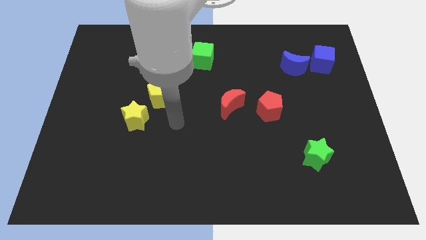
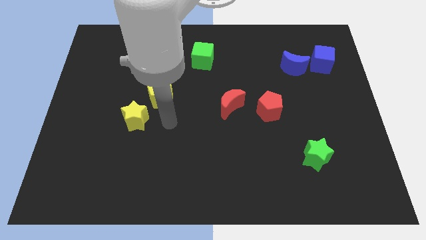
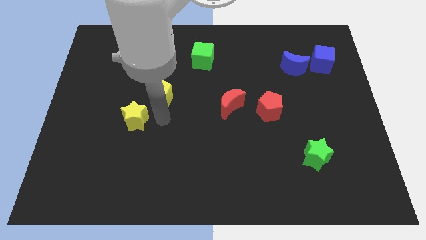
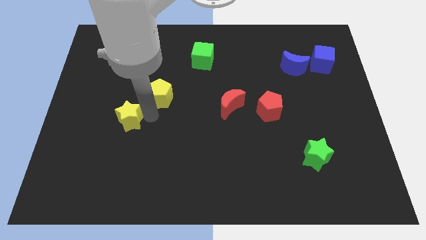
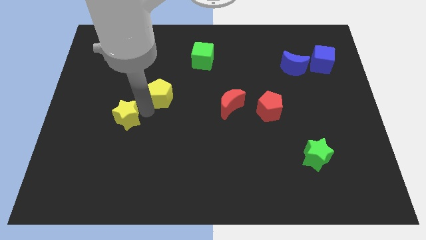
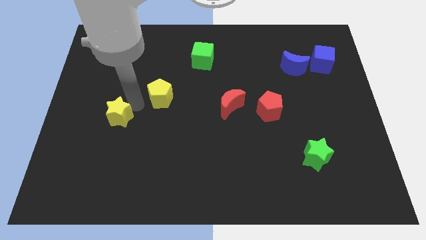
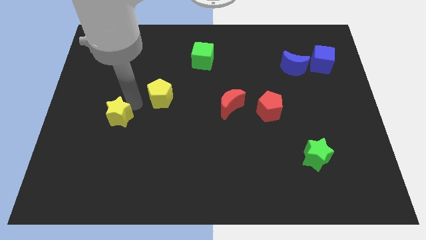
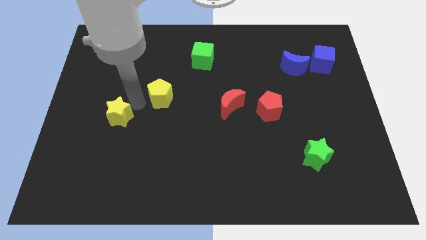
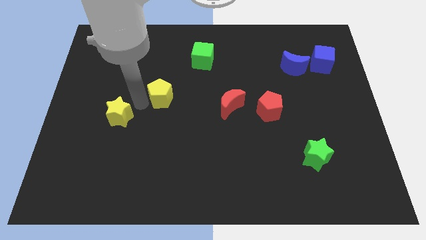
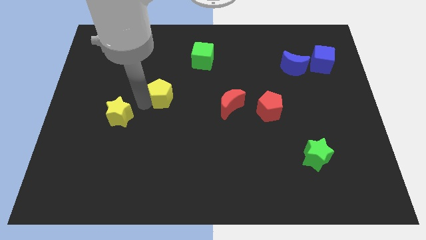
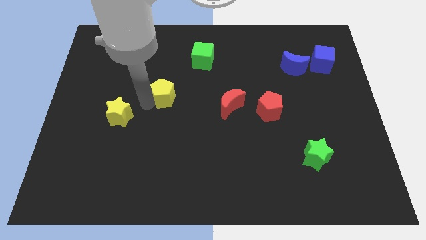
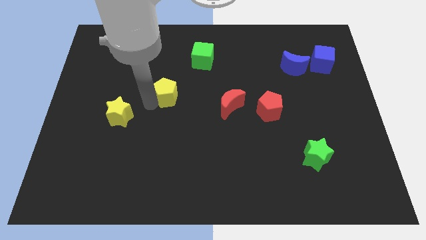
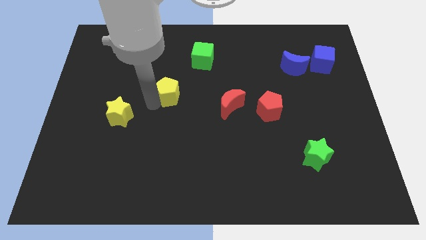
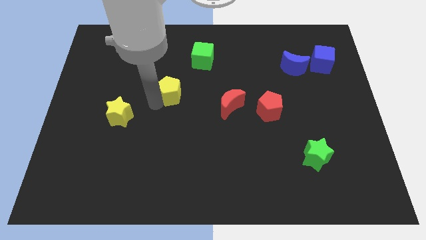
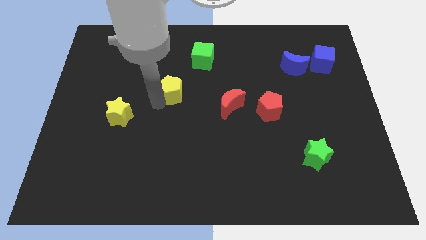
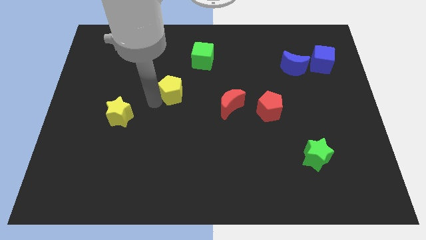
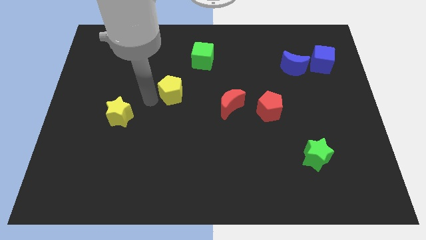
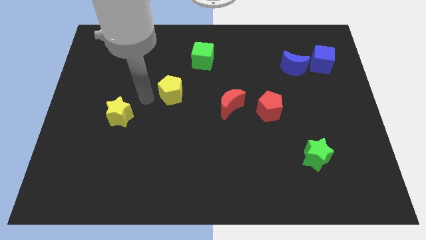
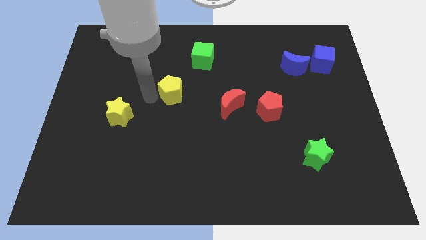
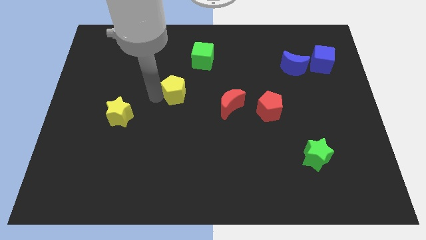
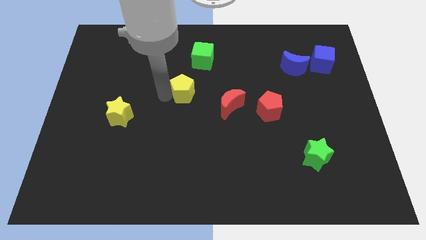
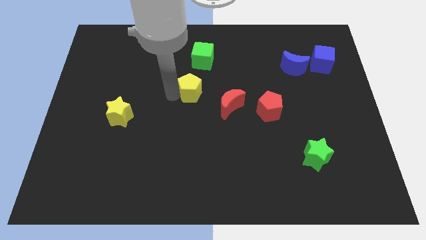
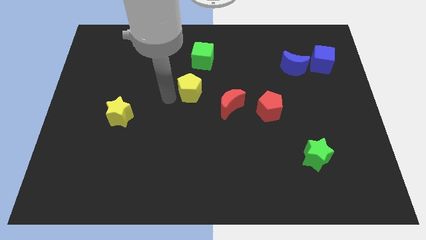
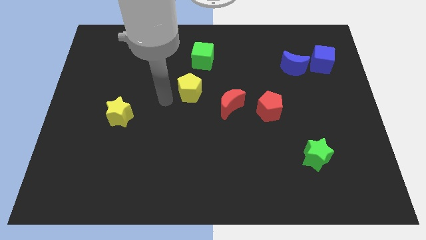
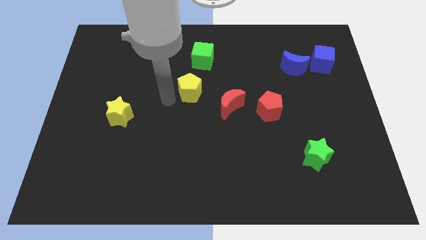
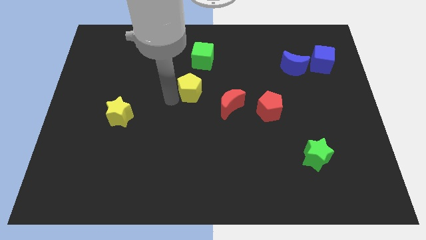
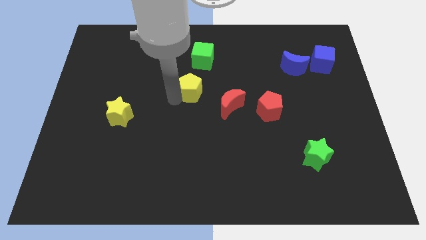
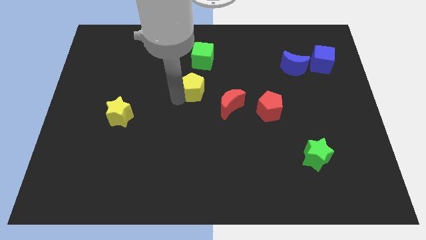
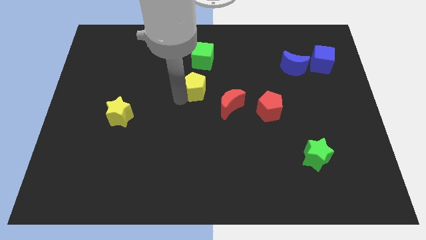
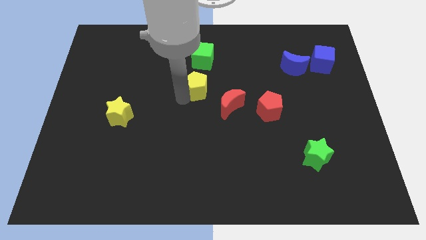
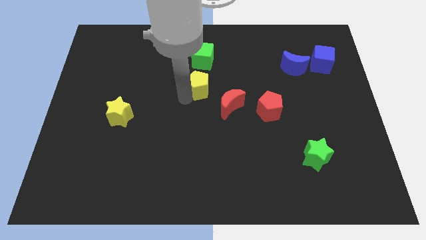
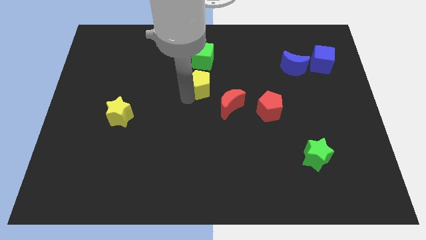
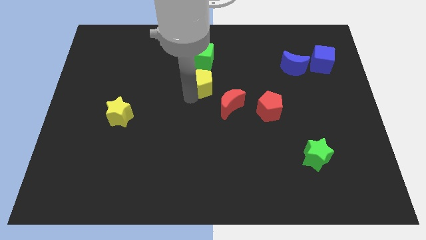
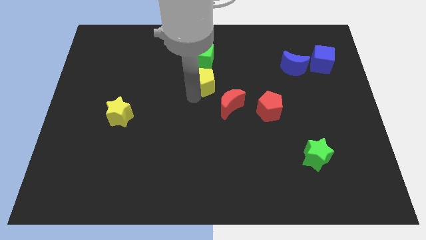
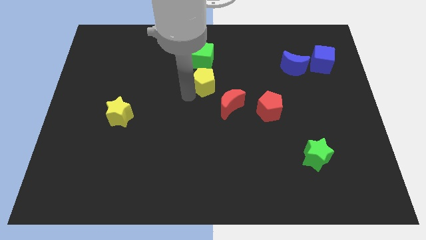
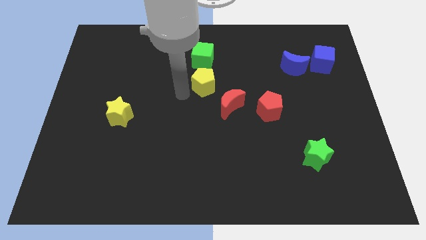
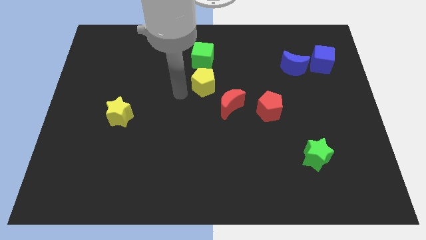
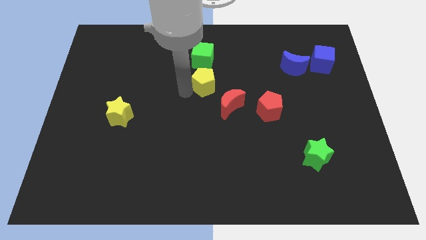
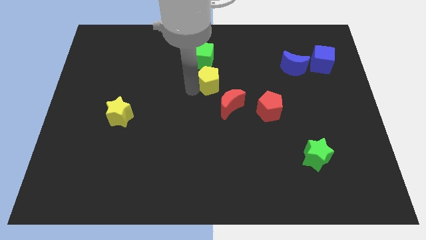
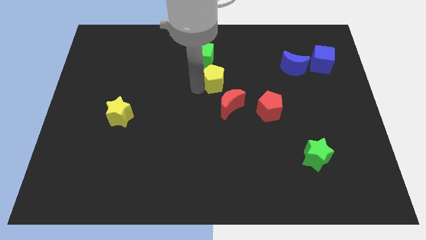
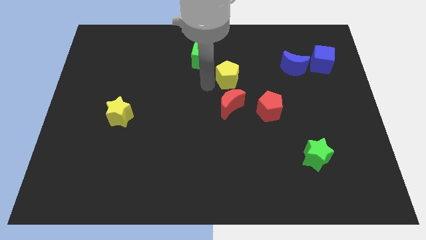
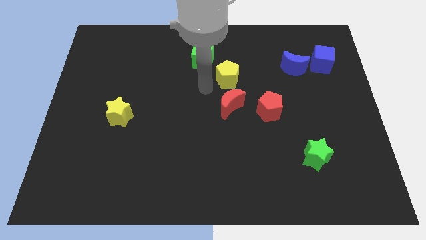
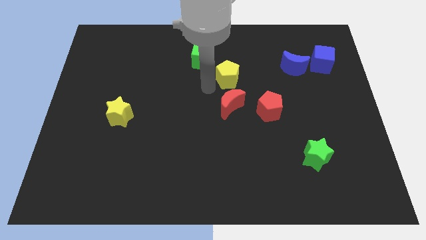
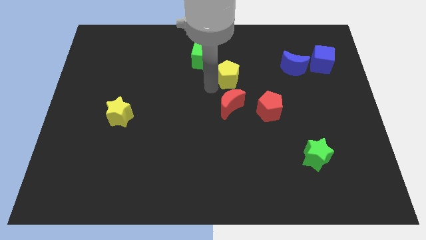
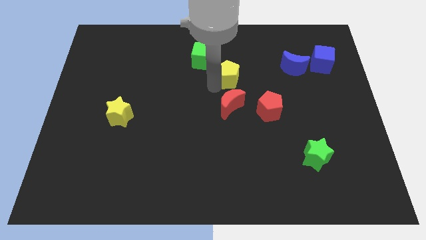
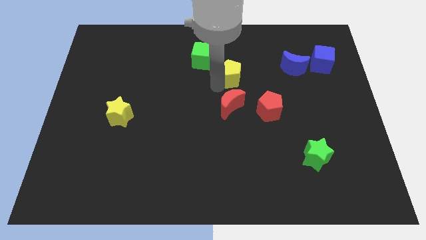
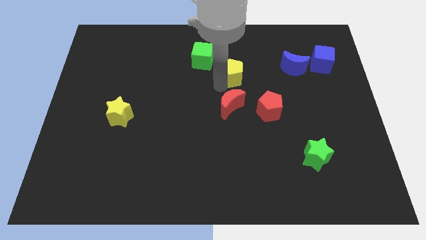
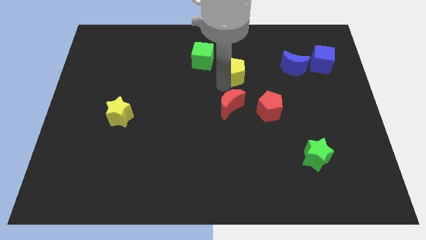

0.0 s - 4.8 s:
push the yellow pentagon left of the blue moon

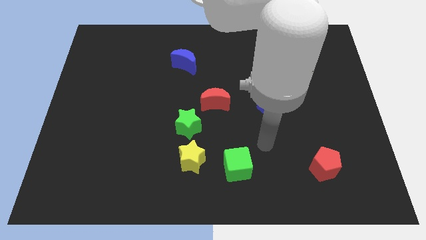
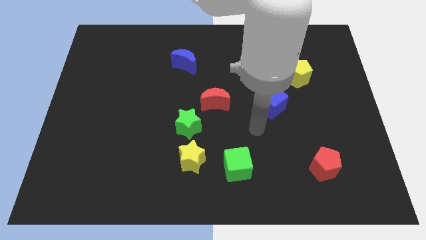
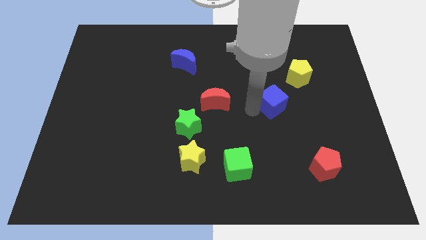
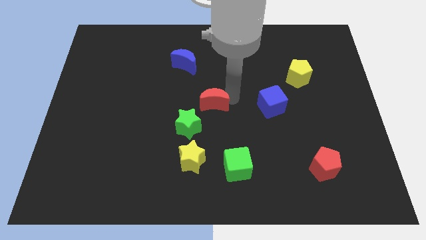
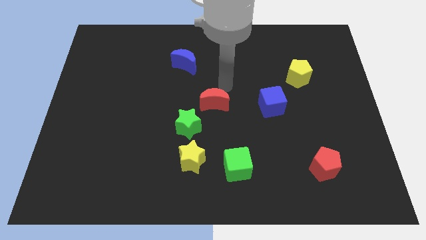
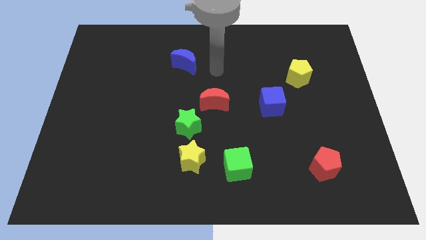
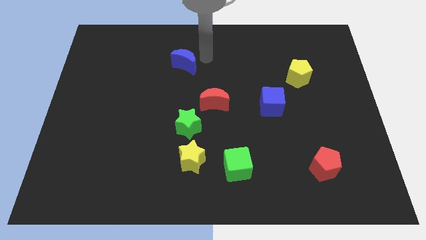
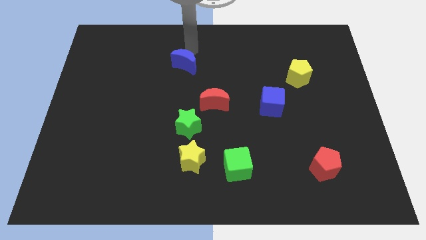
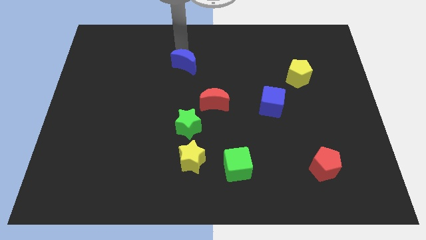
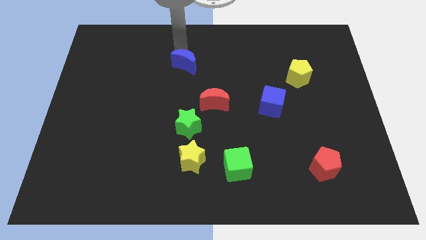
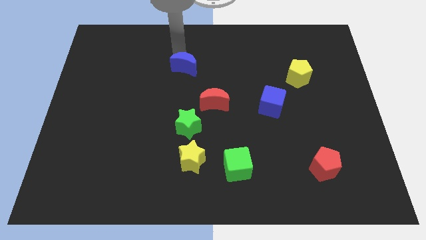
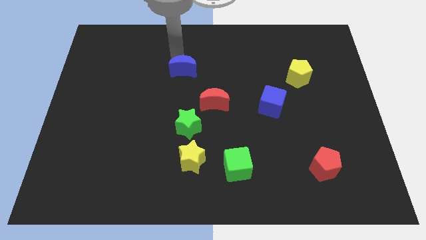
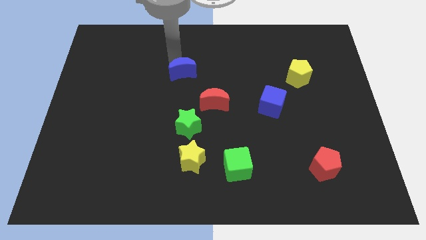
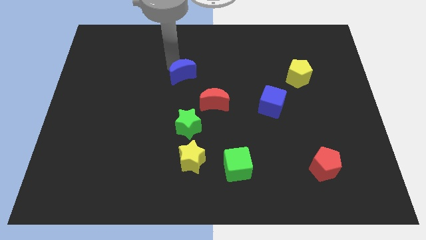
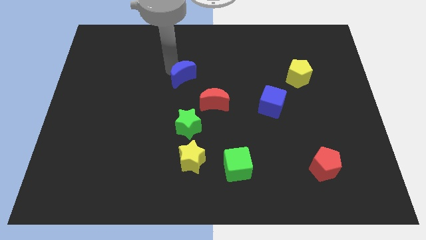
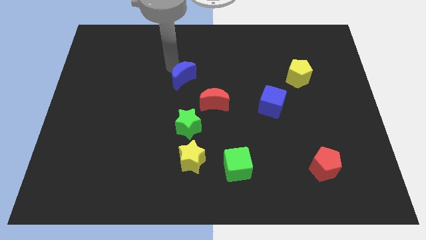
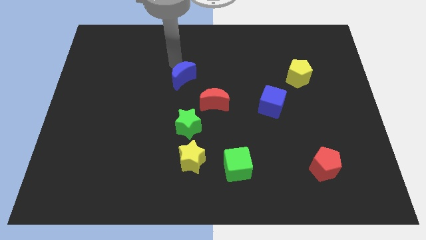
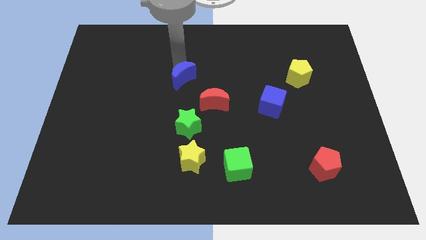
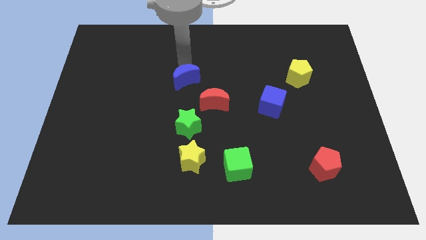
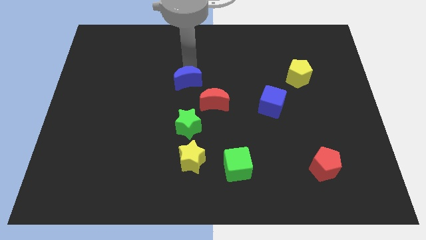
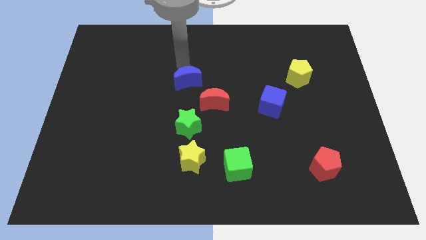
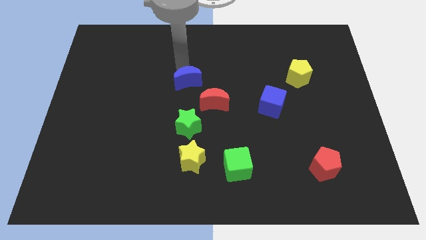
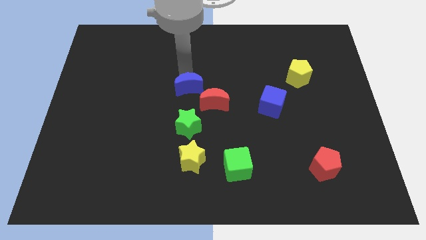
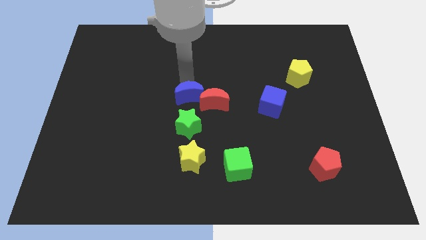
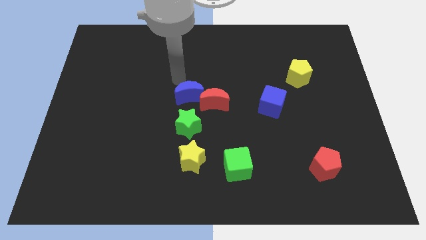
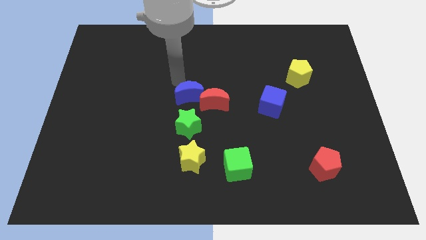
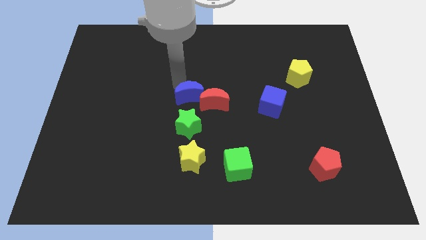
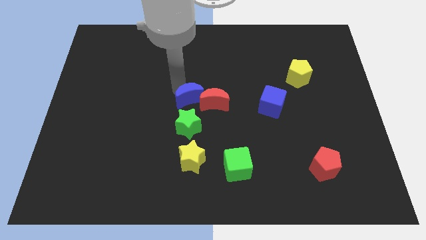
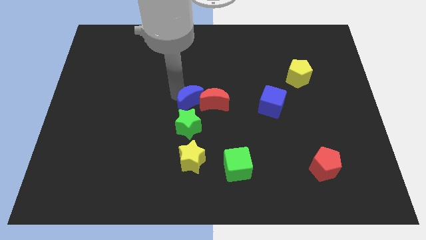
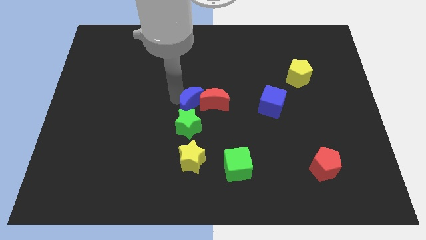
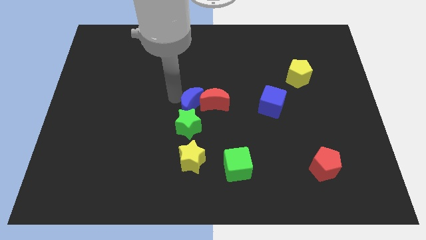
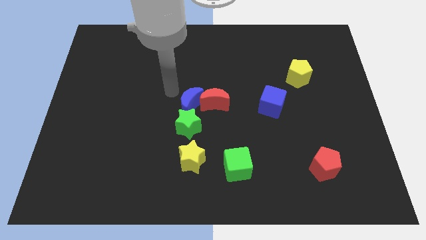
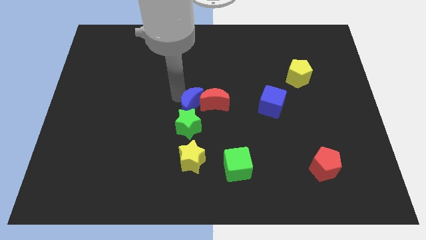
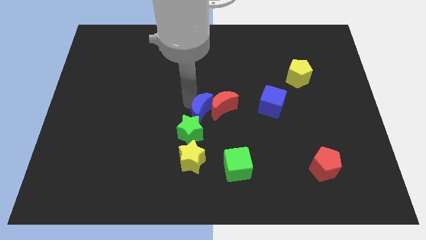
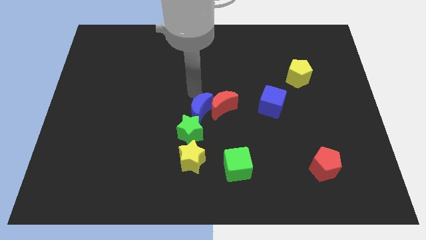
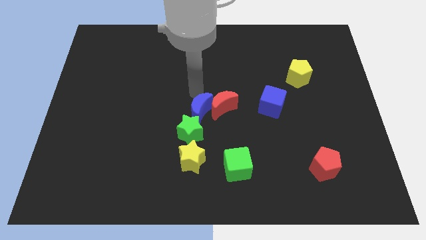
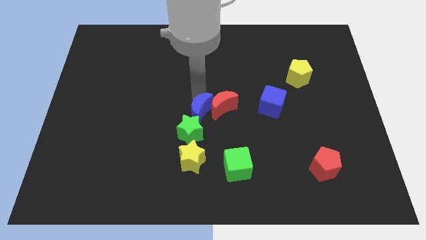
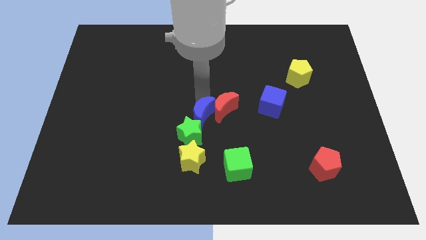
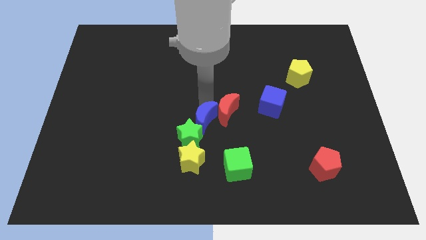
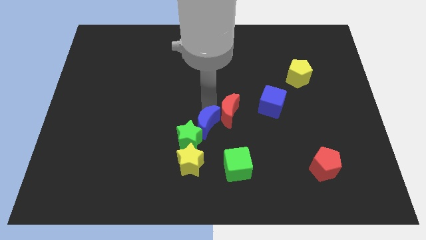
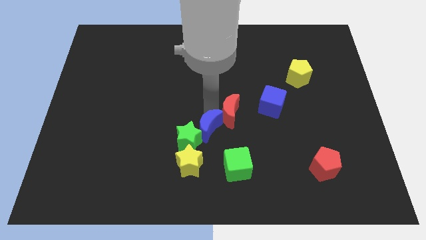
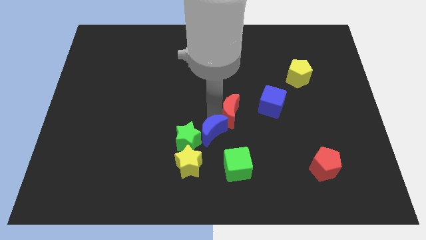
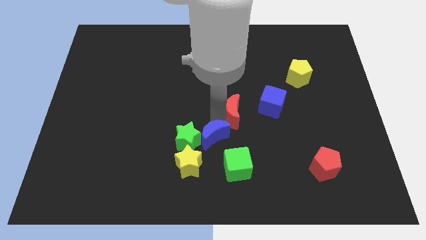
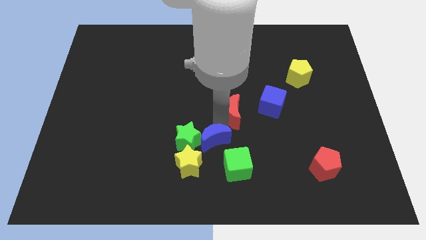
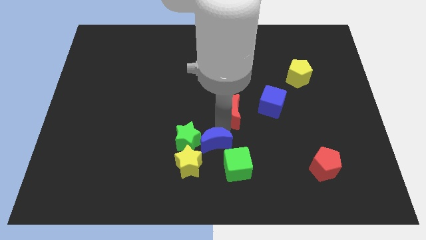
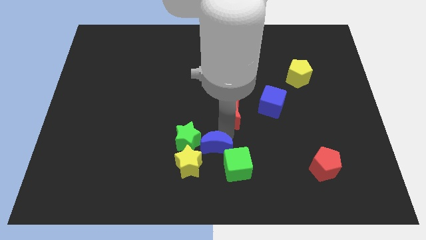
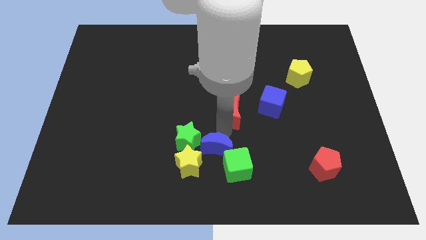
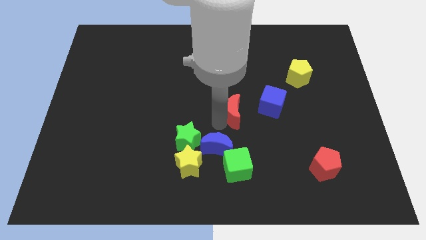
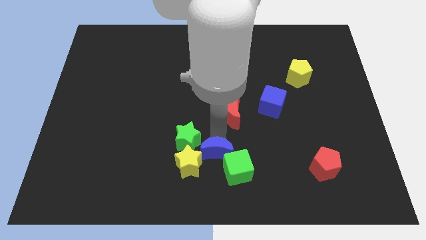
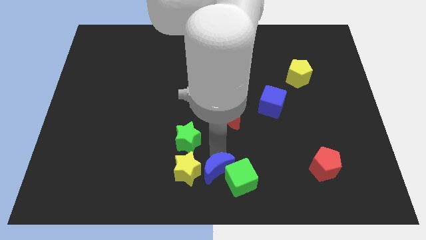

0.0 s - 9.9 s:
push the blue moon to the bottom right of the yellow star
